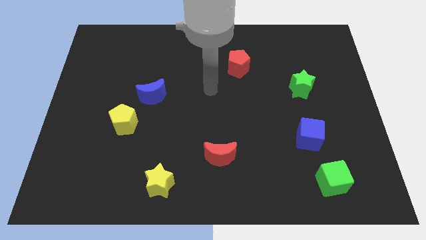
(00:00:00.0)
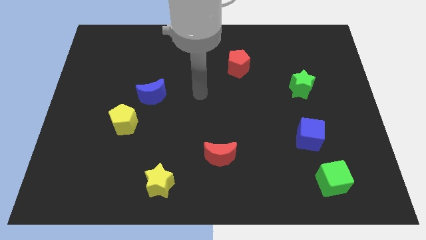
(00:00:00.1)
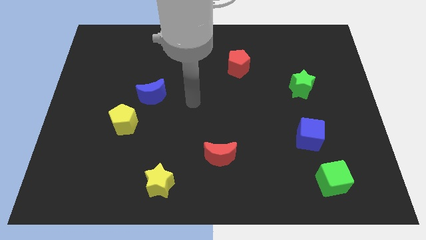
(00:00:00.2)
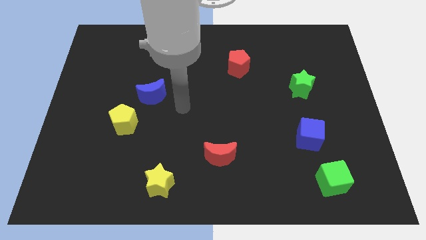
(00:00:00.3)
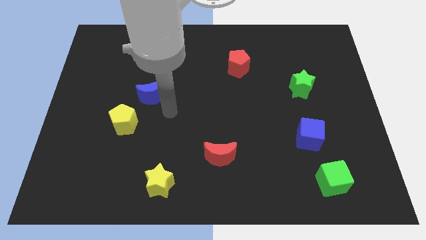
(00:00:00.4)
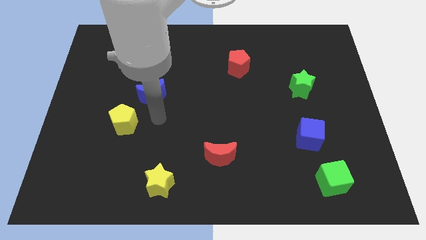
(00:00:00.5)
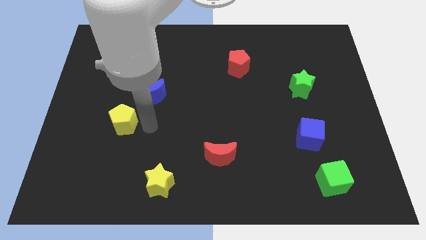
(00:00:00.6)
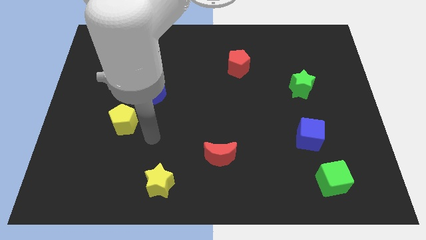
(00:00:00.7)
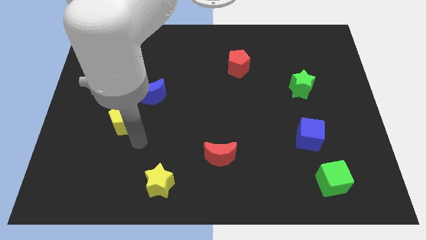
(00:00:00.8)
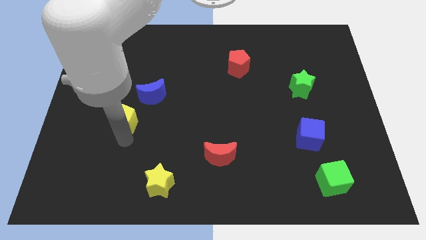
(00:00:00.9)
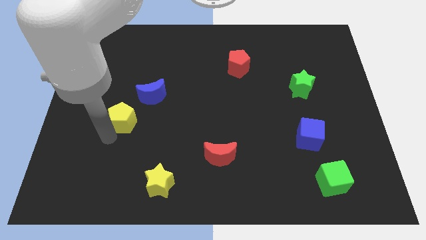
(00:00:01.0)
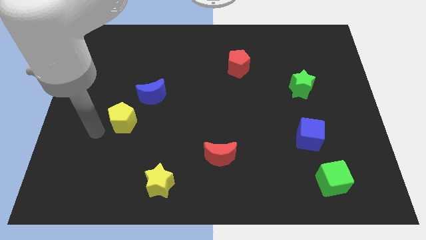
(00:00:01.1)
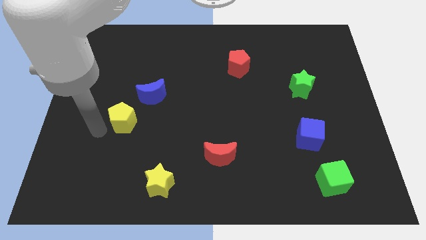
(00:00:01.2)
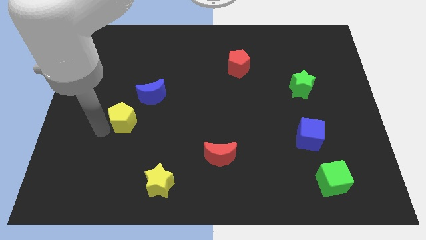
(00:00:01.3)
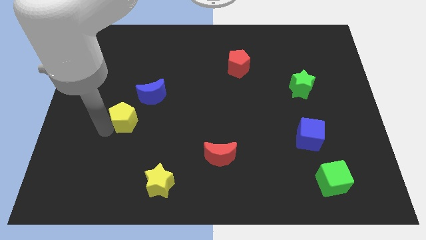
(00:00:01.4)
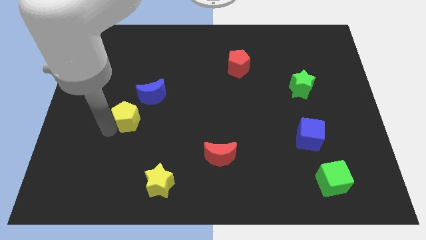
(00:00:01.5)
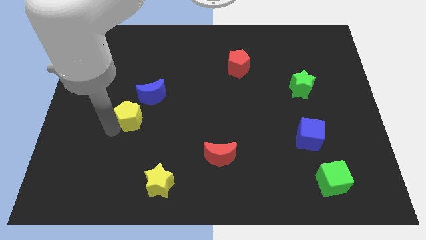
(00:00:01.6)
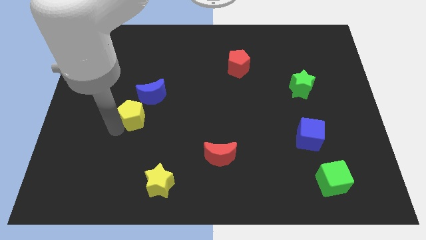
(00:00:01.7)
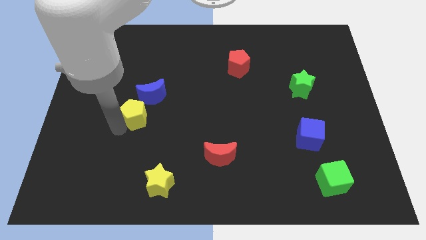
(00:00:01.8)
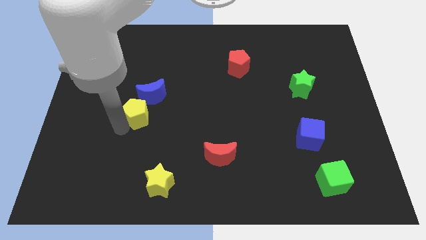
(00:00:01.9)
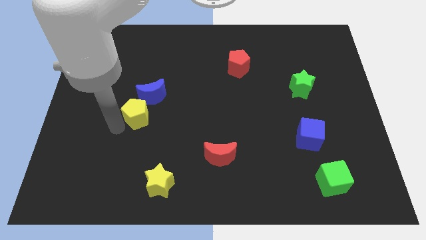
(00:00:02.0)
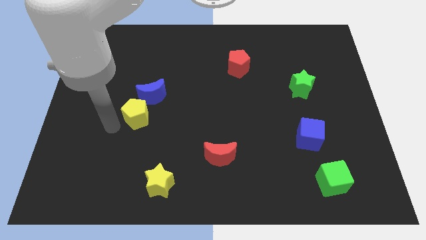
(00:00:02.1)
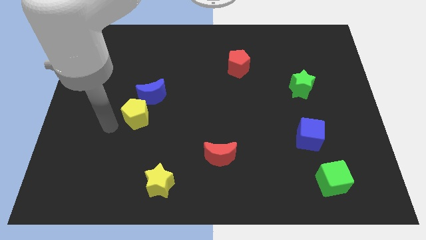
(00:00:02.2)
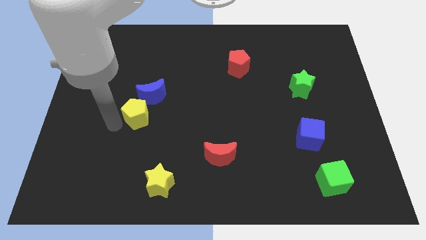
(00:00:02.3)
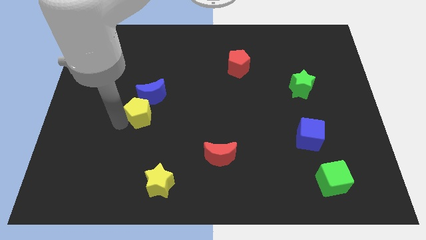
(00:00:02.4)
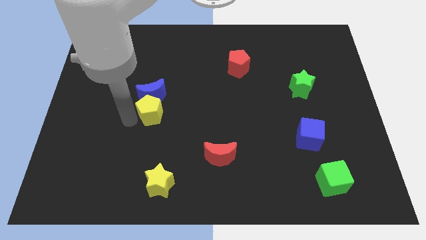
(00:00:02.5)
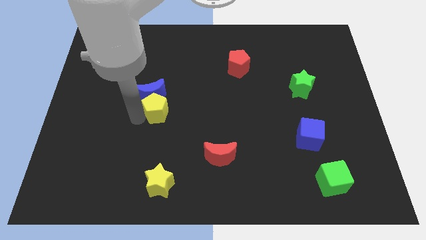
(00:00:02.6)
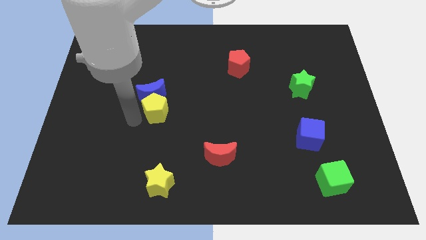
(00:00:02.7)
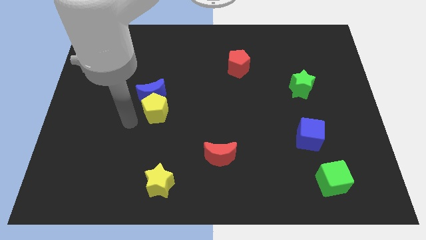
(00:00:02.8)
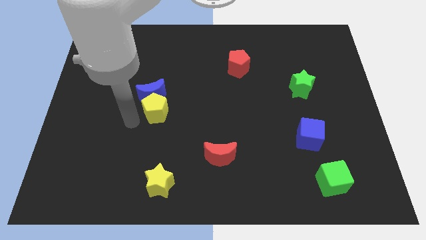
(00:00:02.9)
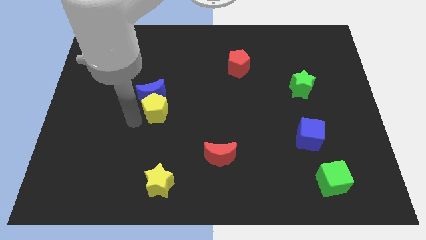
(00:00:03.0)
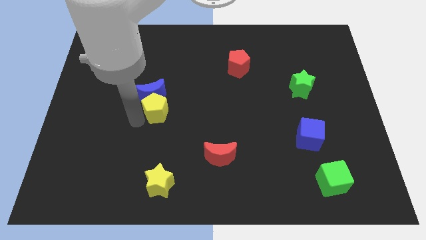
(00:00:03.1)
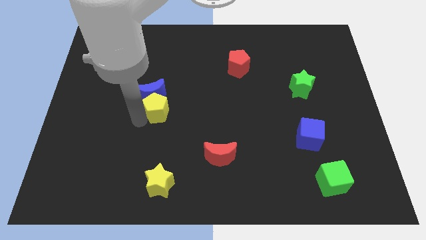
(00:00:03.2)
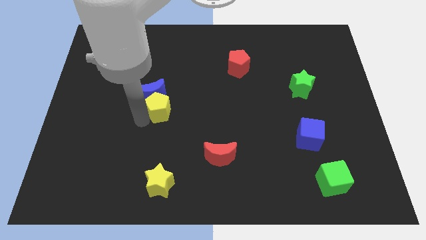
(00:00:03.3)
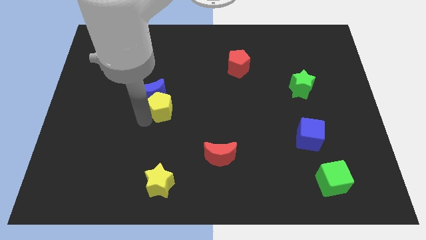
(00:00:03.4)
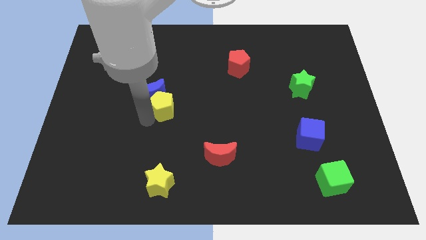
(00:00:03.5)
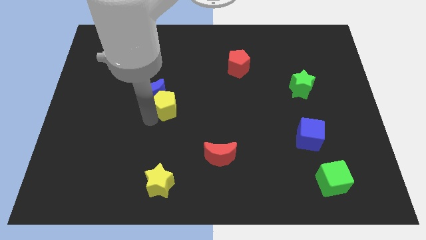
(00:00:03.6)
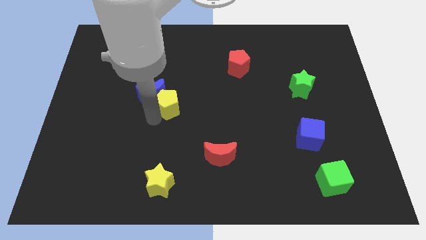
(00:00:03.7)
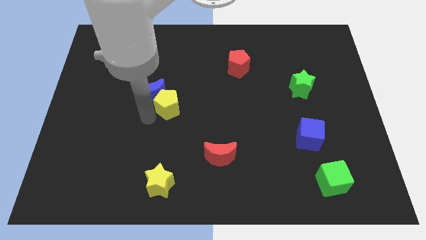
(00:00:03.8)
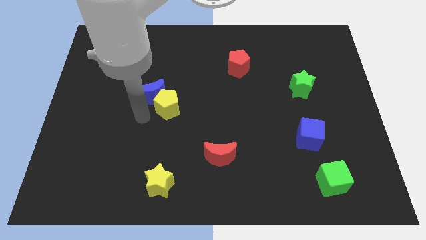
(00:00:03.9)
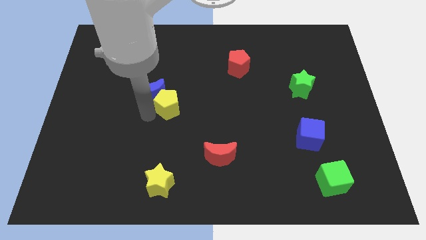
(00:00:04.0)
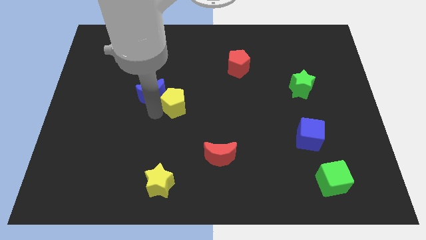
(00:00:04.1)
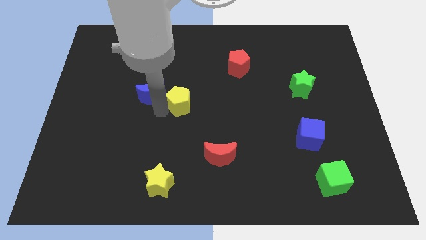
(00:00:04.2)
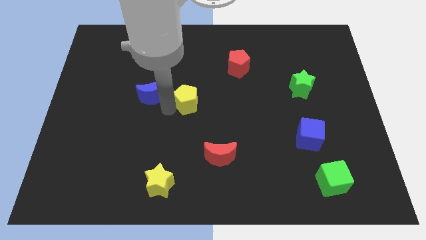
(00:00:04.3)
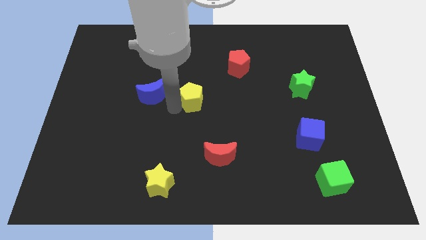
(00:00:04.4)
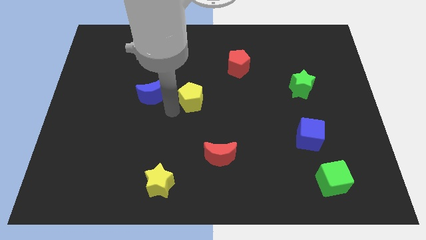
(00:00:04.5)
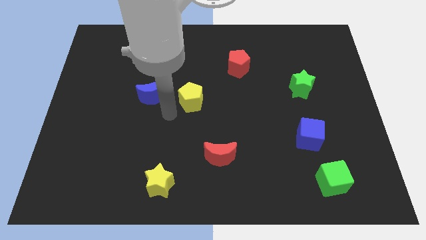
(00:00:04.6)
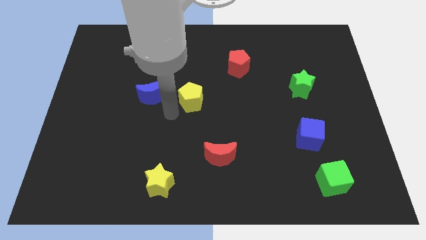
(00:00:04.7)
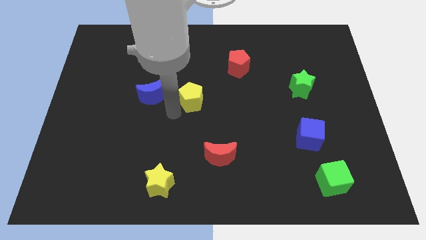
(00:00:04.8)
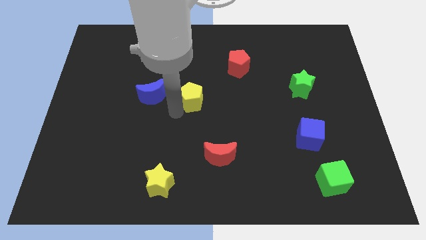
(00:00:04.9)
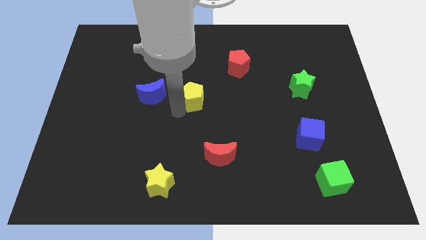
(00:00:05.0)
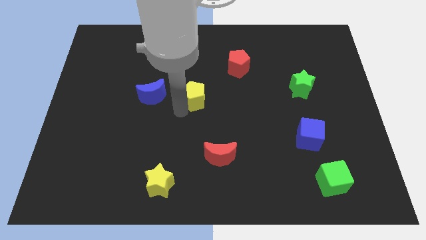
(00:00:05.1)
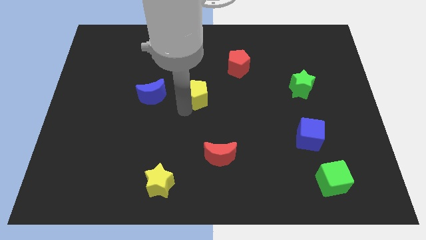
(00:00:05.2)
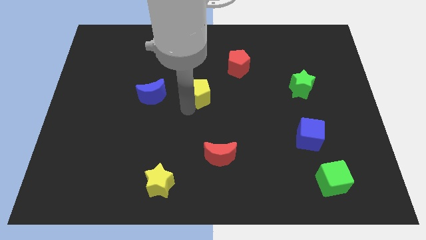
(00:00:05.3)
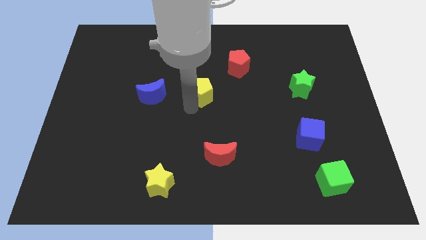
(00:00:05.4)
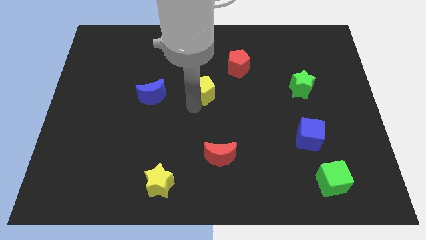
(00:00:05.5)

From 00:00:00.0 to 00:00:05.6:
move the yellow pentagon diagonally down and to the left of the red pentagon

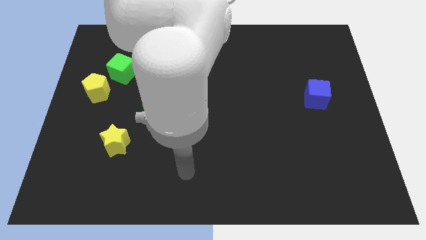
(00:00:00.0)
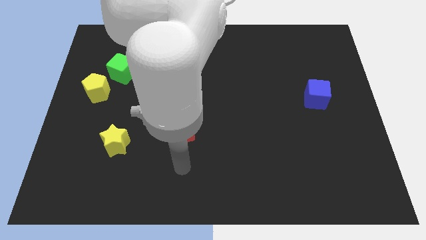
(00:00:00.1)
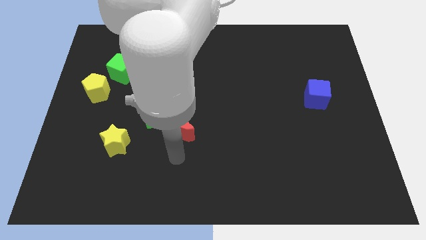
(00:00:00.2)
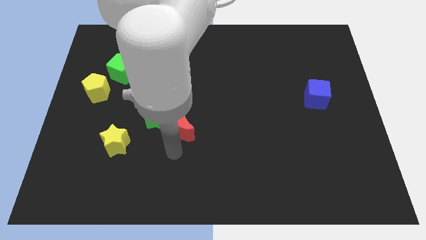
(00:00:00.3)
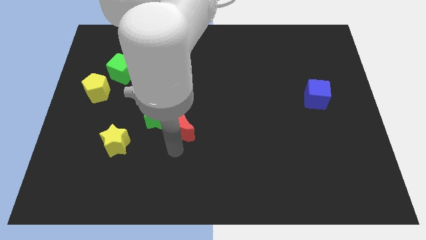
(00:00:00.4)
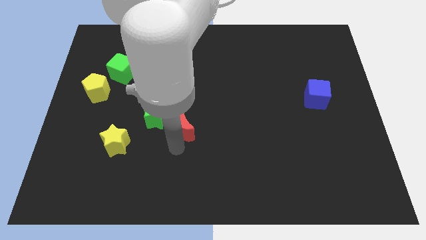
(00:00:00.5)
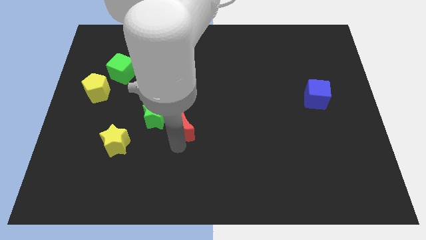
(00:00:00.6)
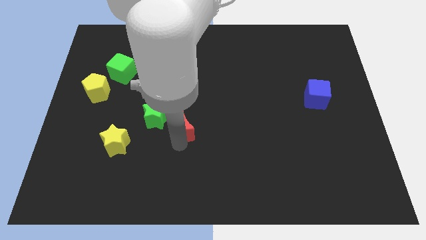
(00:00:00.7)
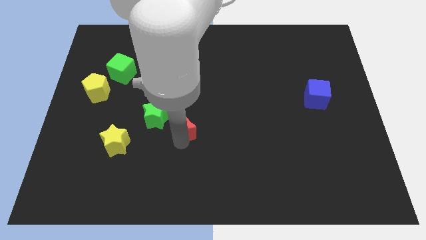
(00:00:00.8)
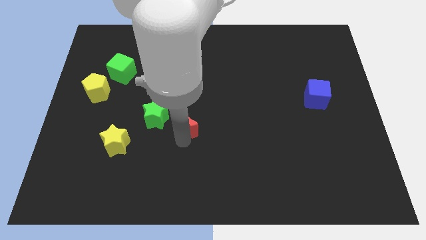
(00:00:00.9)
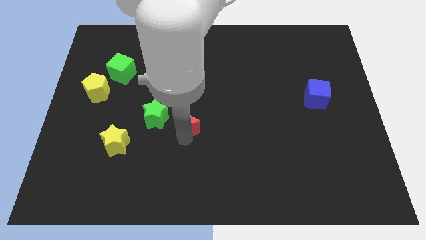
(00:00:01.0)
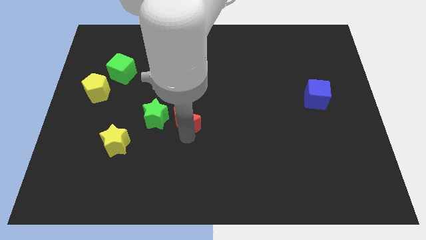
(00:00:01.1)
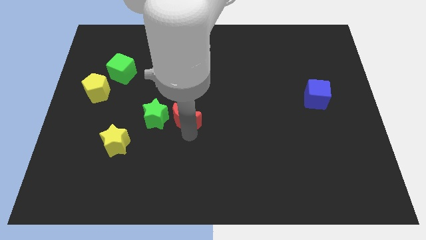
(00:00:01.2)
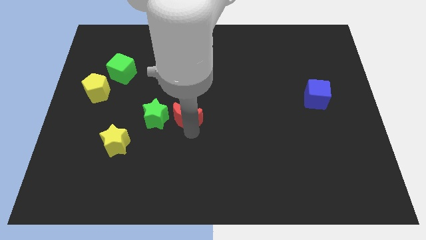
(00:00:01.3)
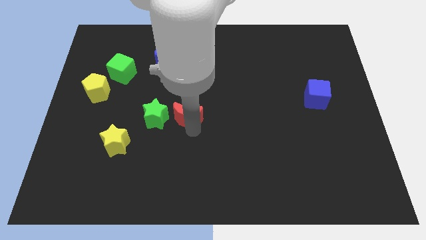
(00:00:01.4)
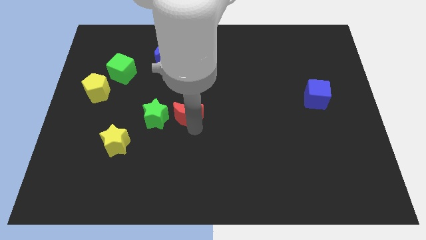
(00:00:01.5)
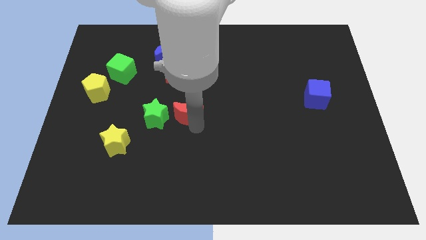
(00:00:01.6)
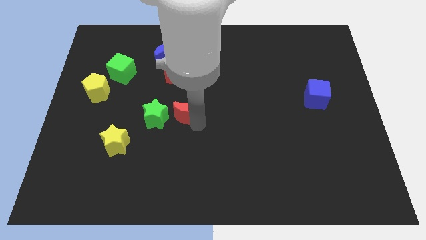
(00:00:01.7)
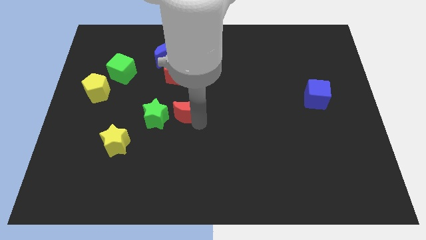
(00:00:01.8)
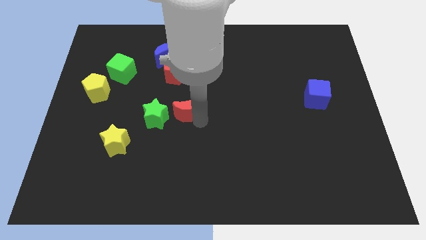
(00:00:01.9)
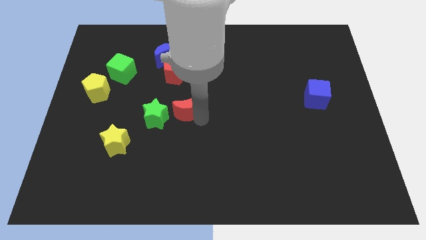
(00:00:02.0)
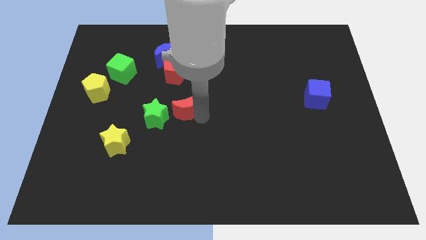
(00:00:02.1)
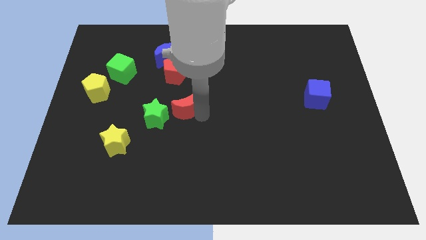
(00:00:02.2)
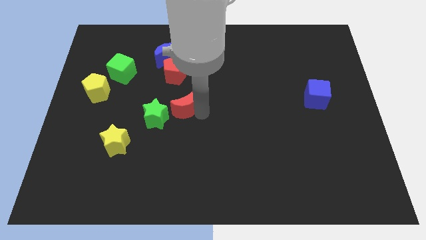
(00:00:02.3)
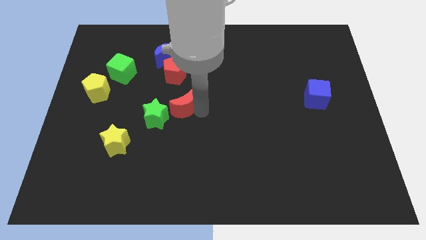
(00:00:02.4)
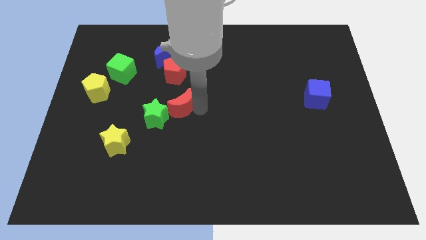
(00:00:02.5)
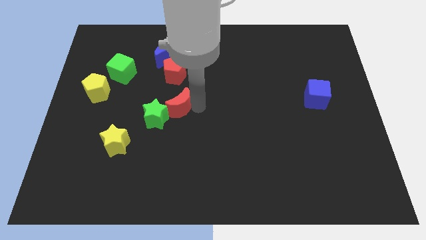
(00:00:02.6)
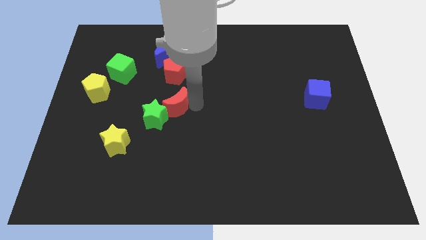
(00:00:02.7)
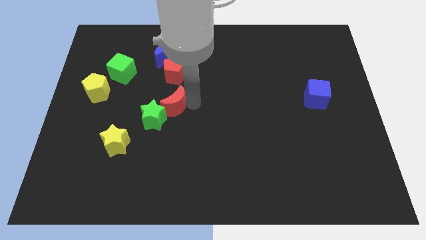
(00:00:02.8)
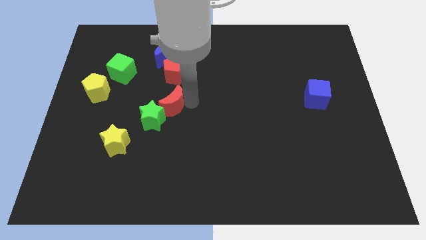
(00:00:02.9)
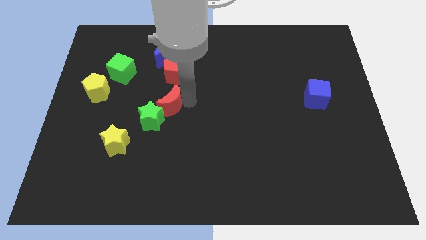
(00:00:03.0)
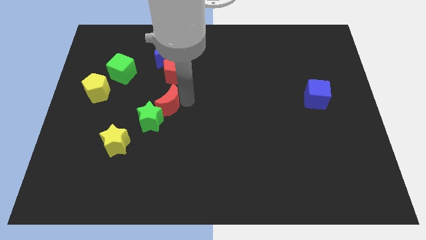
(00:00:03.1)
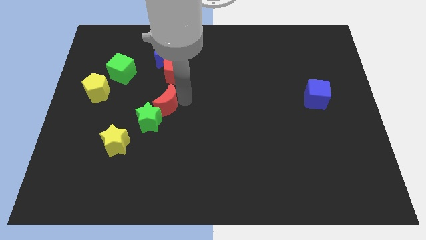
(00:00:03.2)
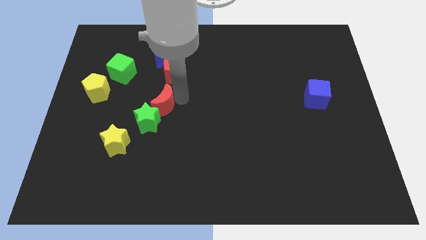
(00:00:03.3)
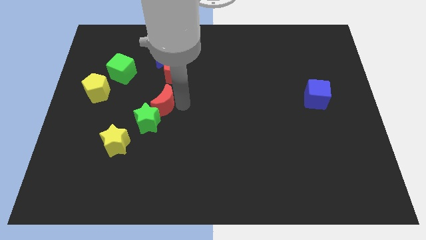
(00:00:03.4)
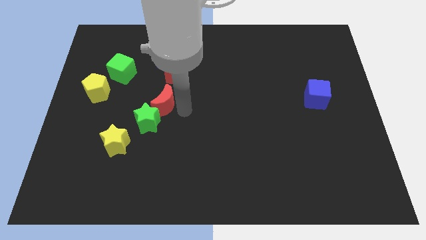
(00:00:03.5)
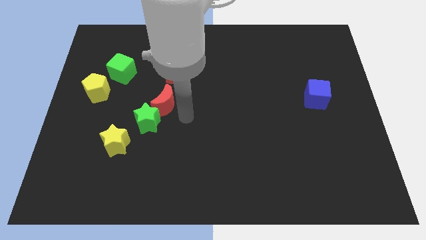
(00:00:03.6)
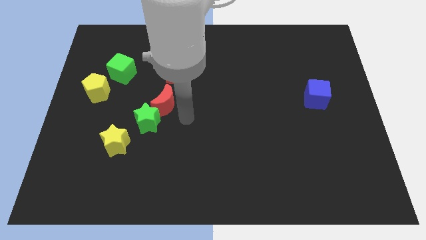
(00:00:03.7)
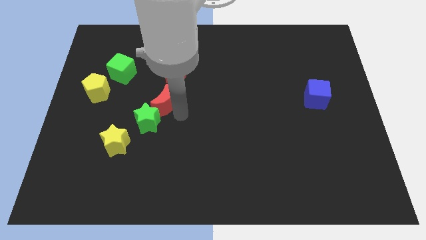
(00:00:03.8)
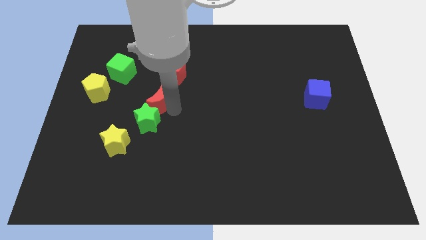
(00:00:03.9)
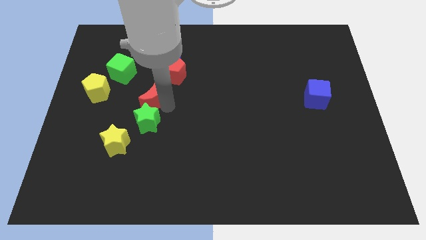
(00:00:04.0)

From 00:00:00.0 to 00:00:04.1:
slide the red moon to the bottom right of the green cube
